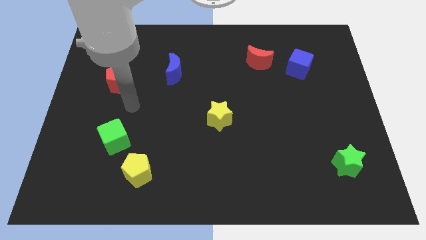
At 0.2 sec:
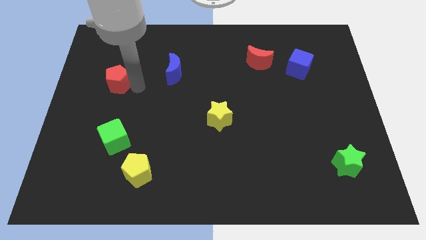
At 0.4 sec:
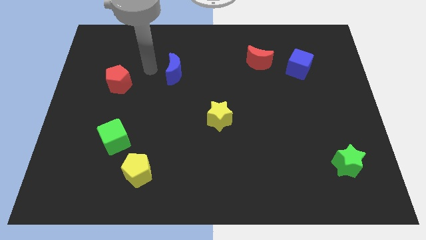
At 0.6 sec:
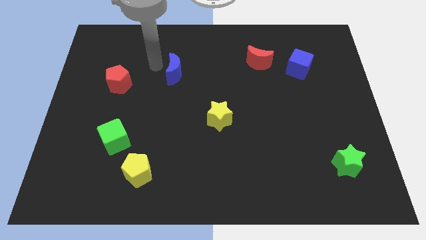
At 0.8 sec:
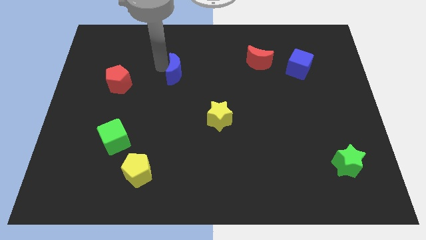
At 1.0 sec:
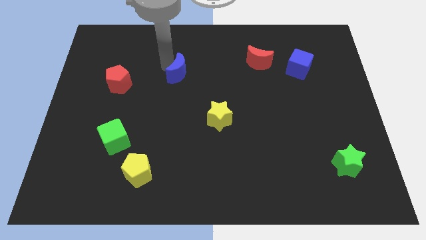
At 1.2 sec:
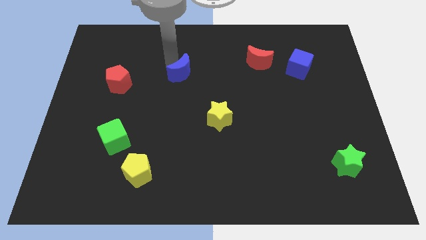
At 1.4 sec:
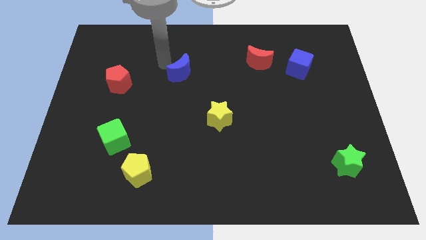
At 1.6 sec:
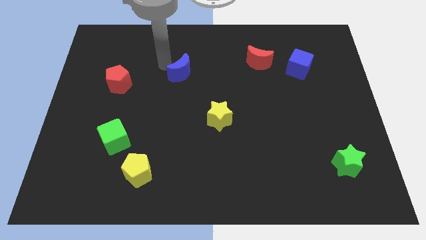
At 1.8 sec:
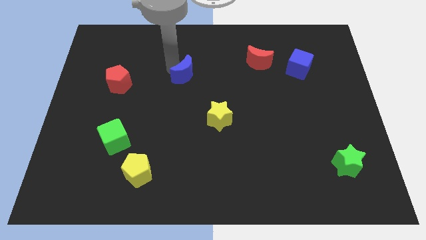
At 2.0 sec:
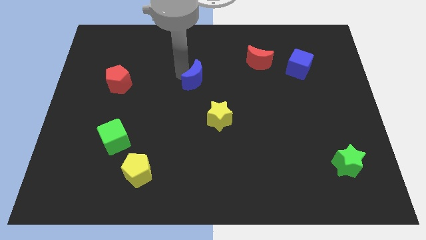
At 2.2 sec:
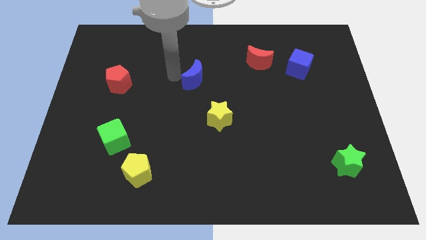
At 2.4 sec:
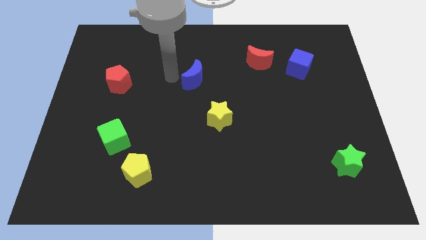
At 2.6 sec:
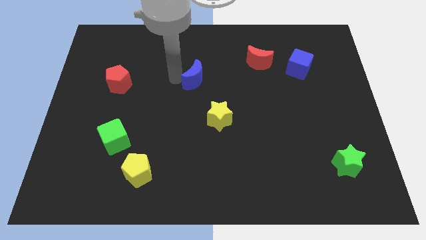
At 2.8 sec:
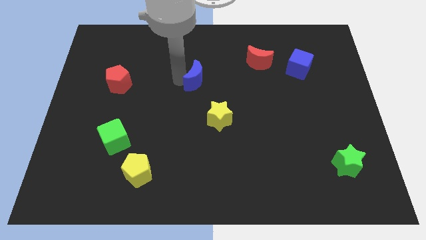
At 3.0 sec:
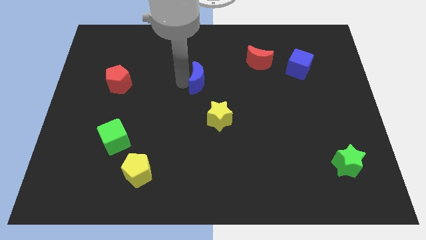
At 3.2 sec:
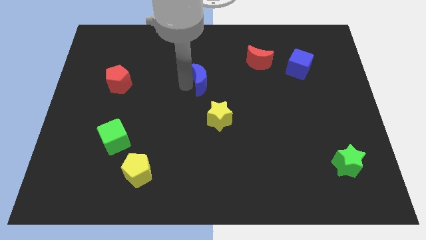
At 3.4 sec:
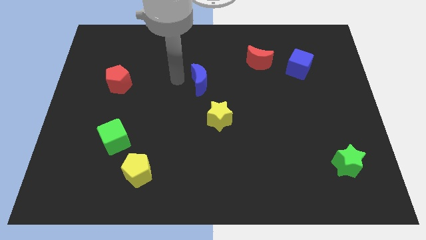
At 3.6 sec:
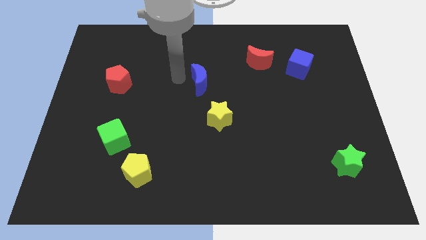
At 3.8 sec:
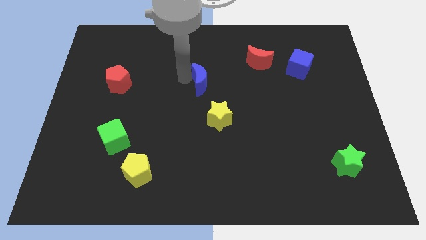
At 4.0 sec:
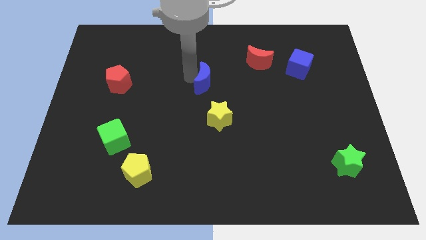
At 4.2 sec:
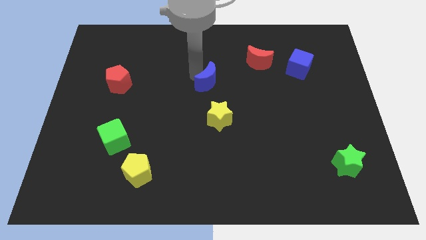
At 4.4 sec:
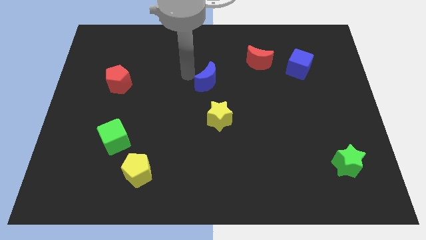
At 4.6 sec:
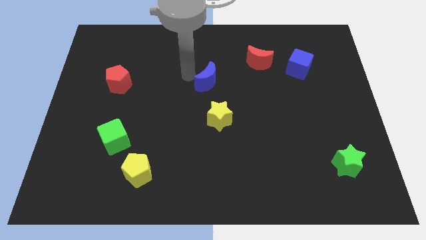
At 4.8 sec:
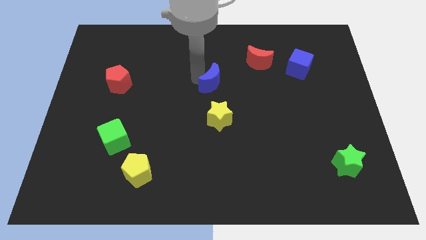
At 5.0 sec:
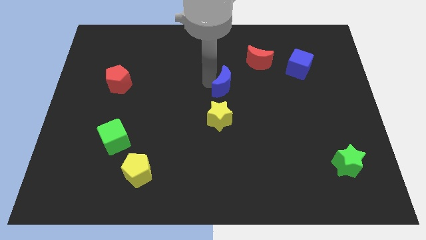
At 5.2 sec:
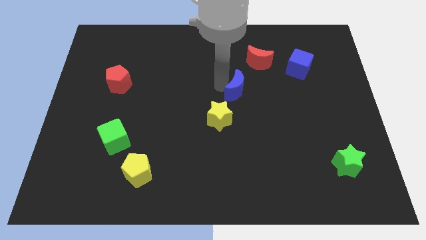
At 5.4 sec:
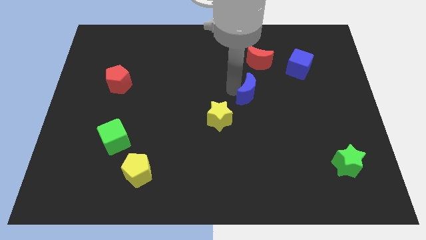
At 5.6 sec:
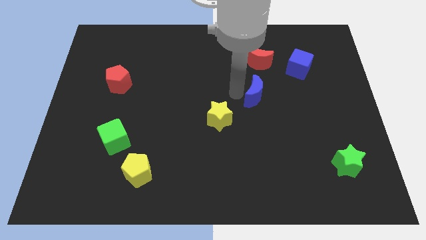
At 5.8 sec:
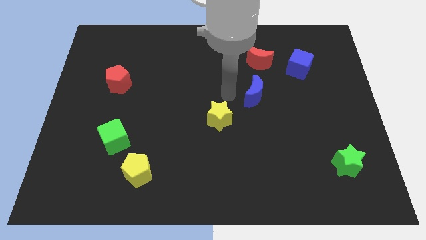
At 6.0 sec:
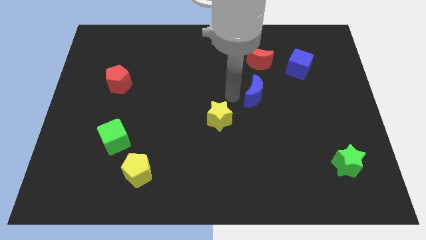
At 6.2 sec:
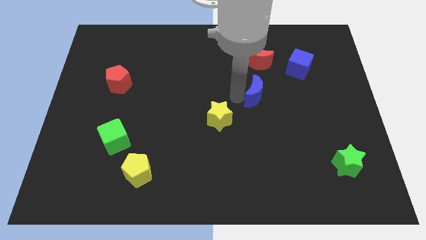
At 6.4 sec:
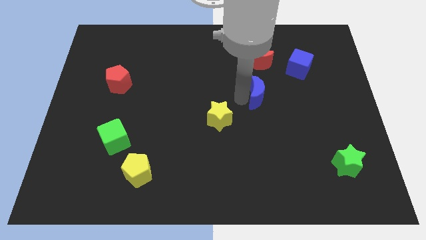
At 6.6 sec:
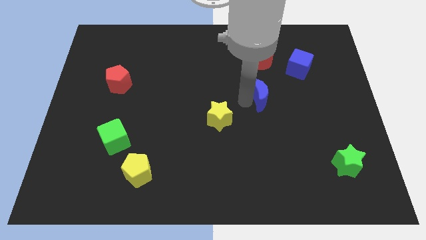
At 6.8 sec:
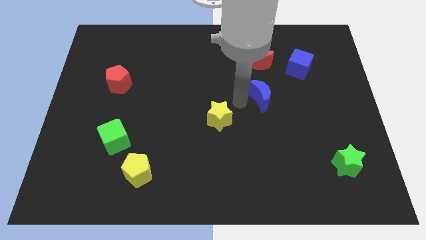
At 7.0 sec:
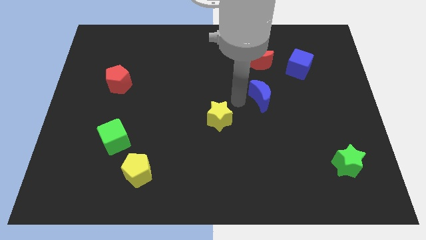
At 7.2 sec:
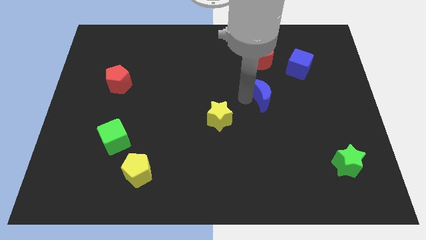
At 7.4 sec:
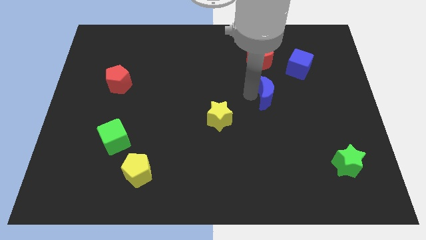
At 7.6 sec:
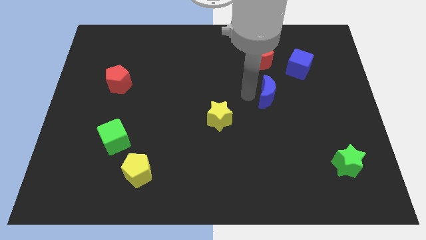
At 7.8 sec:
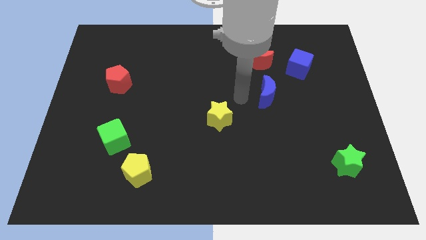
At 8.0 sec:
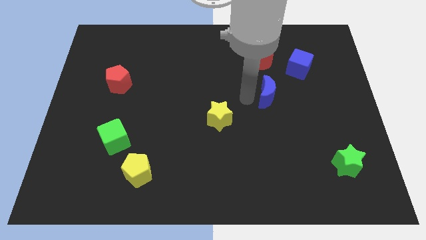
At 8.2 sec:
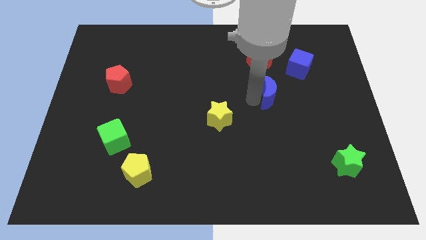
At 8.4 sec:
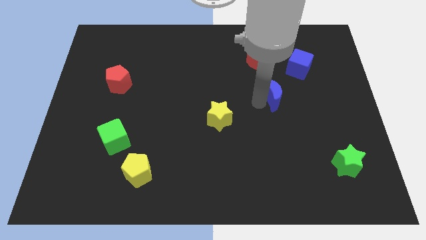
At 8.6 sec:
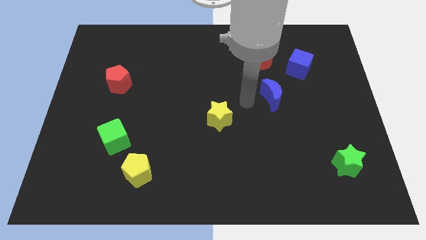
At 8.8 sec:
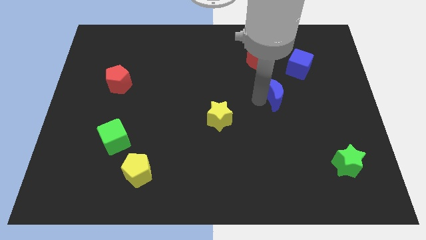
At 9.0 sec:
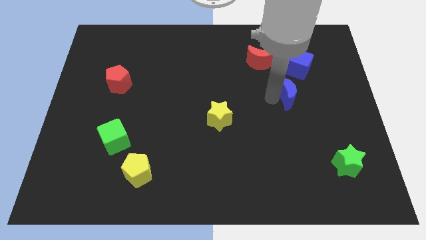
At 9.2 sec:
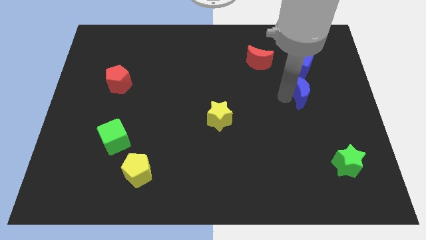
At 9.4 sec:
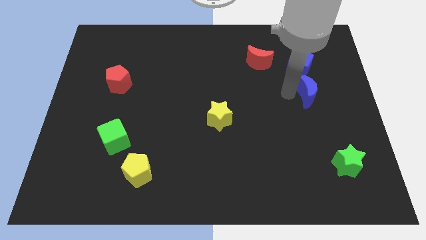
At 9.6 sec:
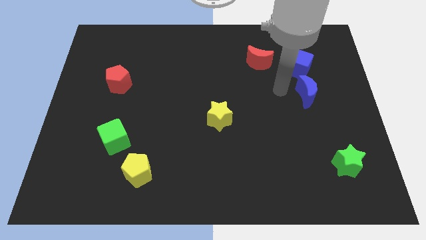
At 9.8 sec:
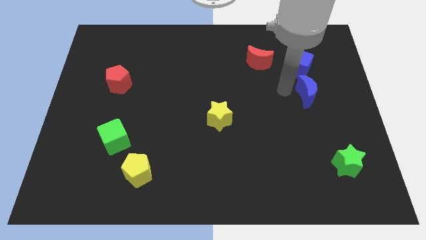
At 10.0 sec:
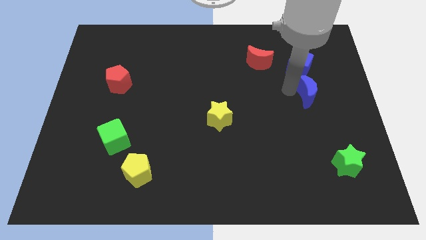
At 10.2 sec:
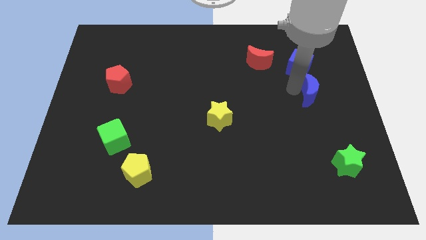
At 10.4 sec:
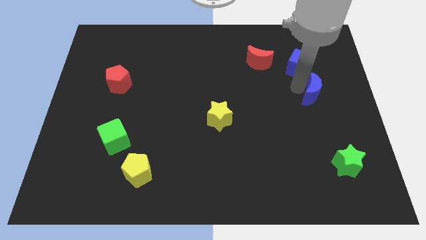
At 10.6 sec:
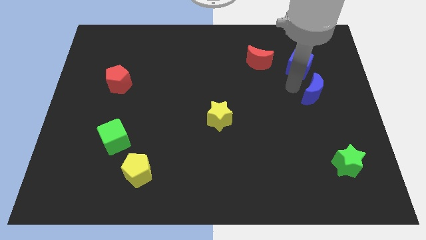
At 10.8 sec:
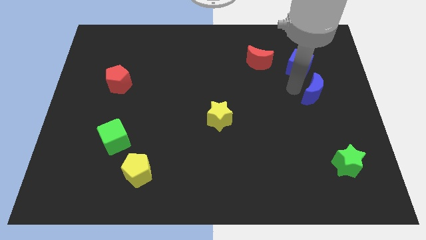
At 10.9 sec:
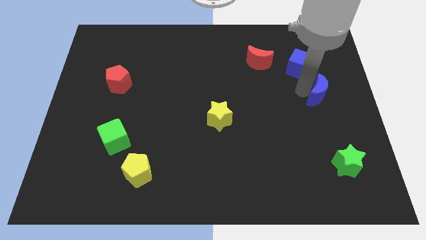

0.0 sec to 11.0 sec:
push the blue moon to the right side

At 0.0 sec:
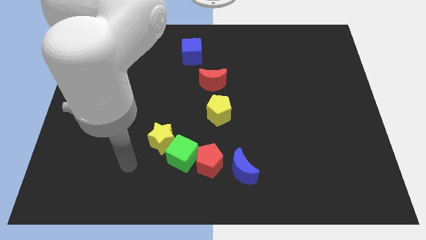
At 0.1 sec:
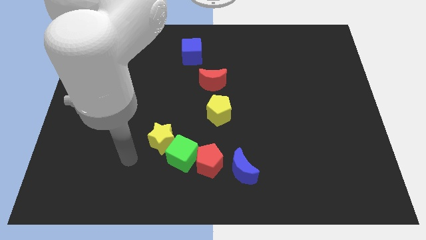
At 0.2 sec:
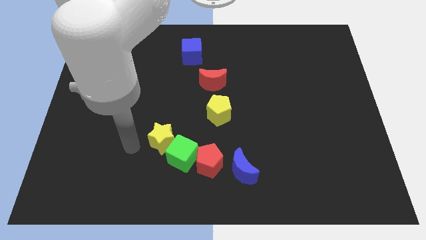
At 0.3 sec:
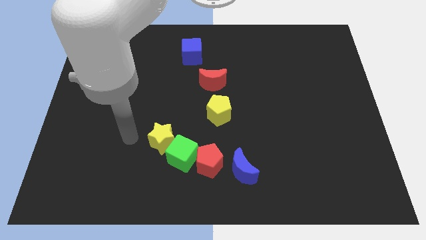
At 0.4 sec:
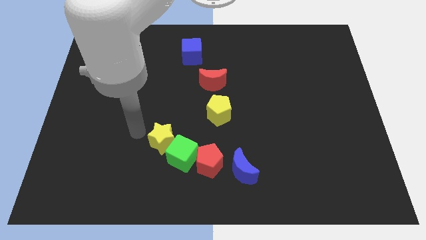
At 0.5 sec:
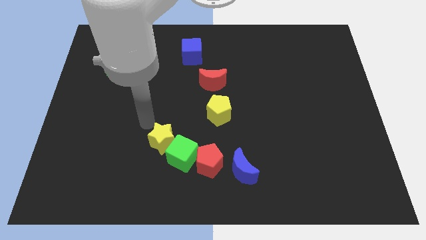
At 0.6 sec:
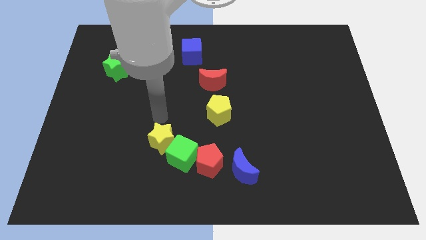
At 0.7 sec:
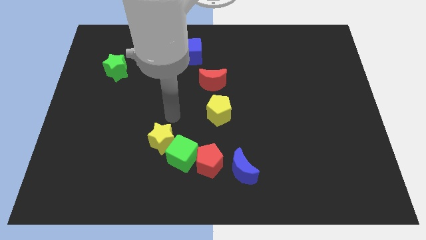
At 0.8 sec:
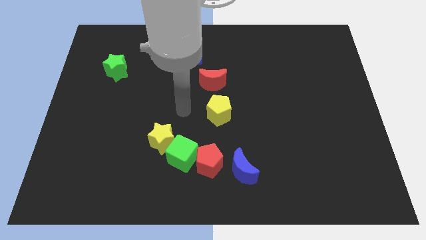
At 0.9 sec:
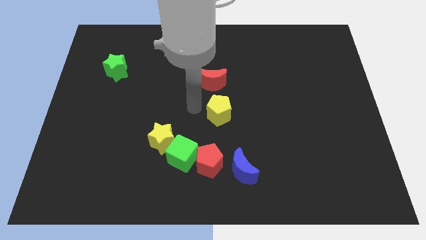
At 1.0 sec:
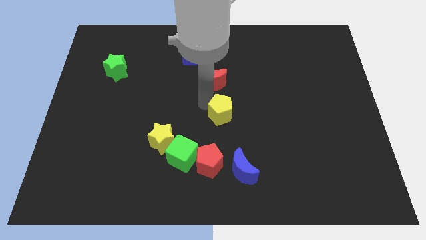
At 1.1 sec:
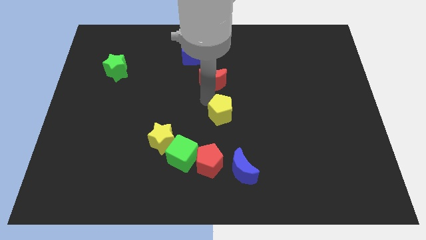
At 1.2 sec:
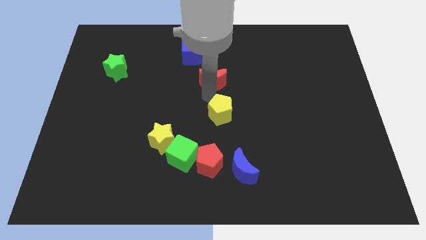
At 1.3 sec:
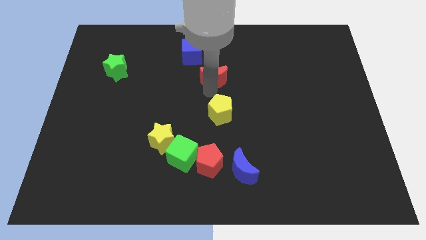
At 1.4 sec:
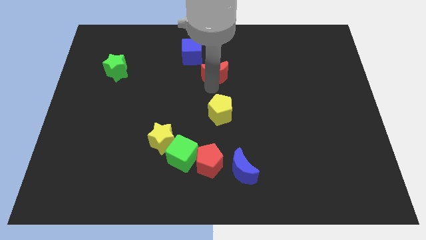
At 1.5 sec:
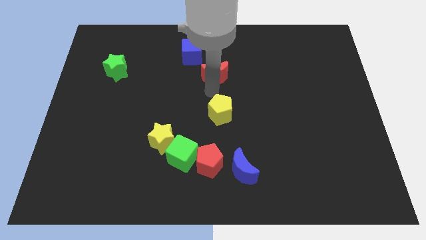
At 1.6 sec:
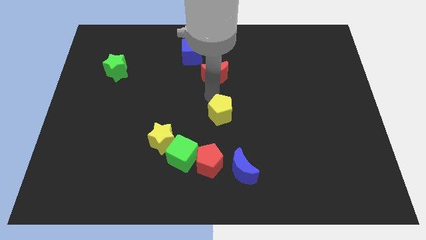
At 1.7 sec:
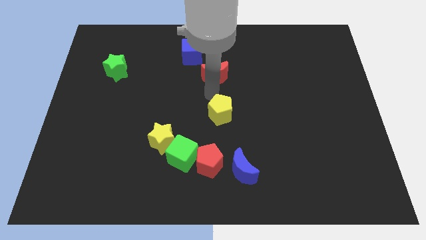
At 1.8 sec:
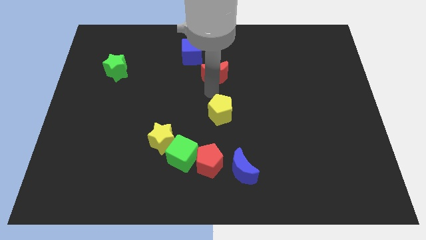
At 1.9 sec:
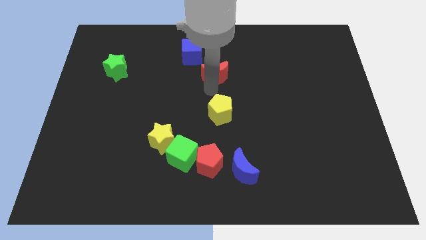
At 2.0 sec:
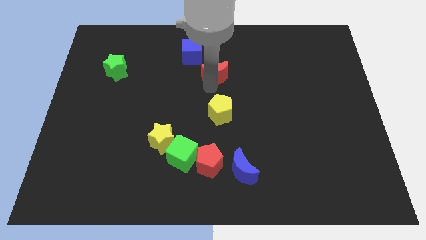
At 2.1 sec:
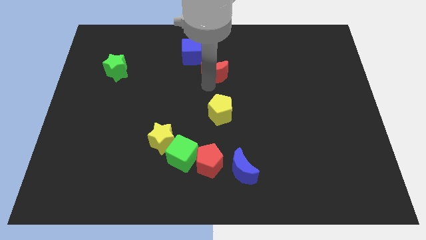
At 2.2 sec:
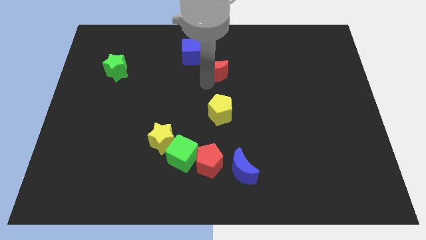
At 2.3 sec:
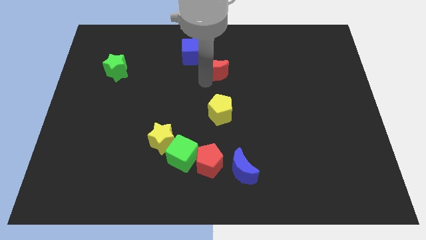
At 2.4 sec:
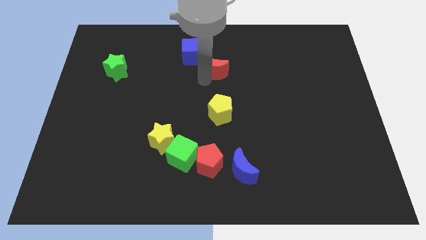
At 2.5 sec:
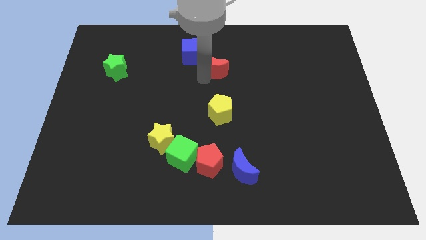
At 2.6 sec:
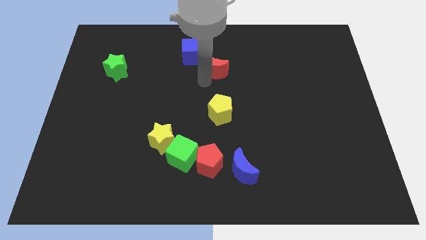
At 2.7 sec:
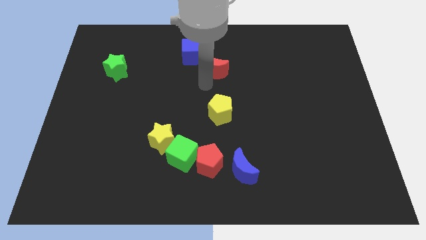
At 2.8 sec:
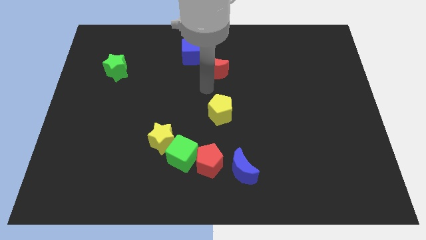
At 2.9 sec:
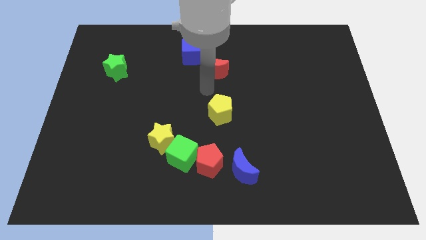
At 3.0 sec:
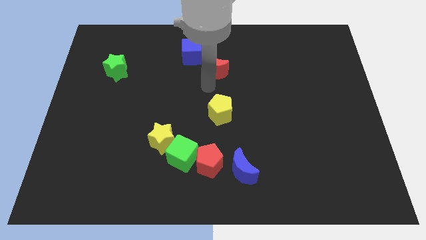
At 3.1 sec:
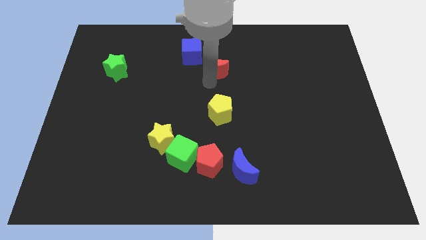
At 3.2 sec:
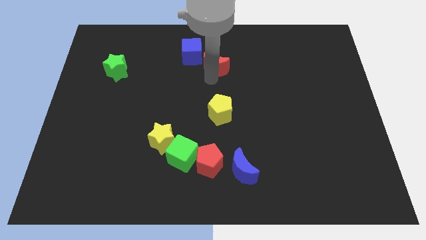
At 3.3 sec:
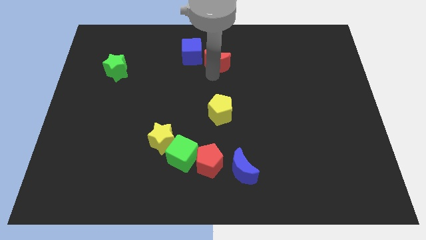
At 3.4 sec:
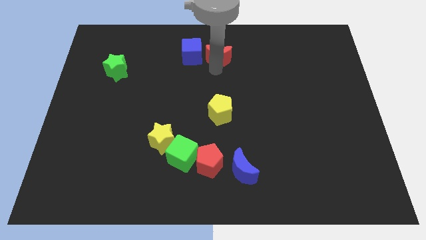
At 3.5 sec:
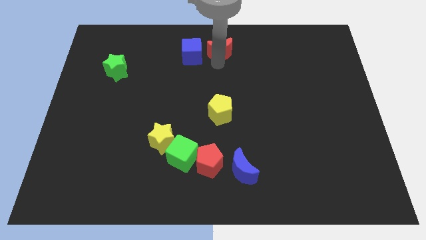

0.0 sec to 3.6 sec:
put the red moon to the top
